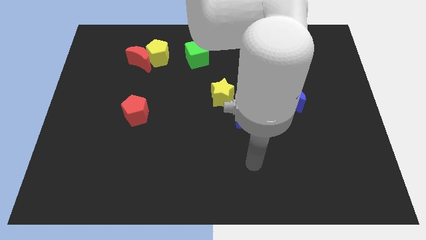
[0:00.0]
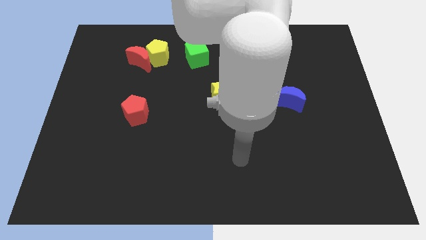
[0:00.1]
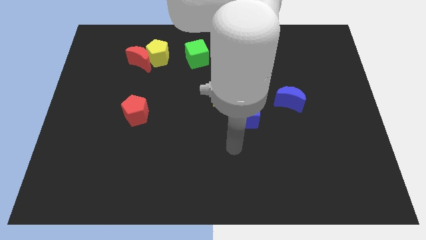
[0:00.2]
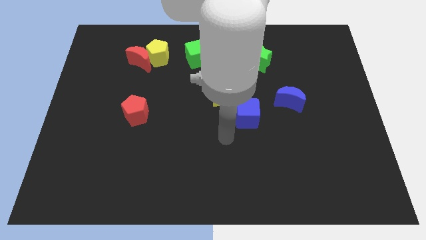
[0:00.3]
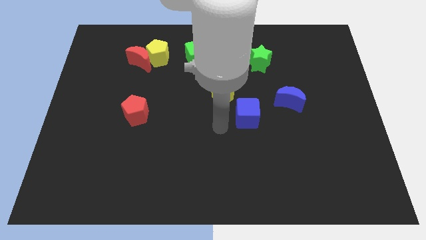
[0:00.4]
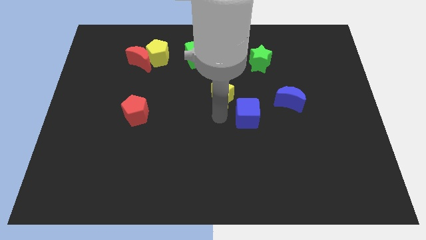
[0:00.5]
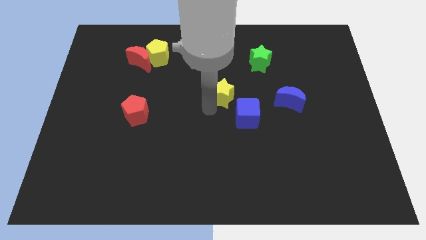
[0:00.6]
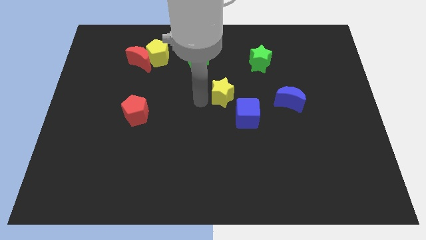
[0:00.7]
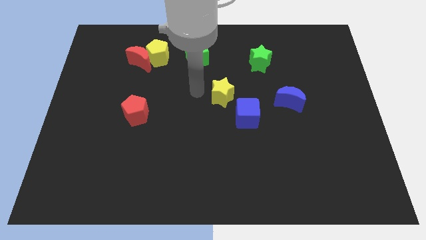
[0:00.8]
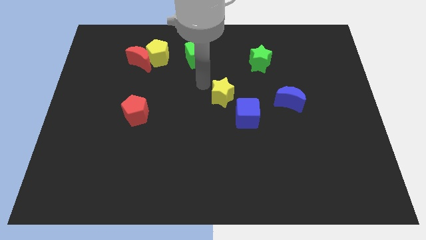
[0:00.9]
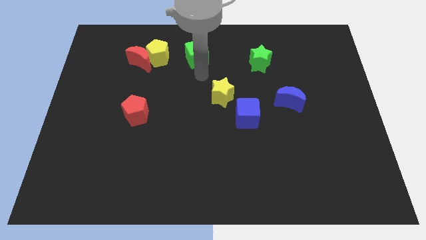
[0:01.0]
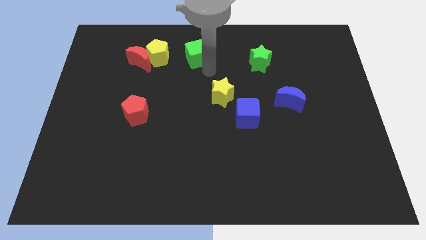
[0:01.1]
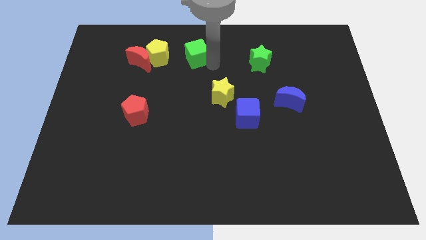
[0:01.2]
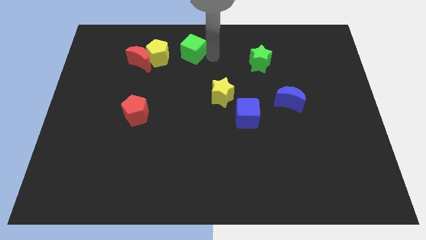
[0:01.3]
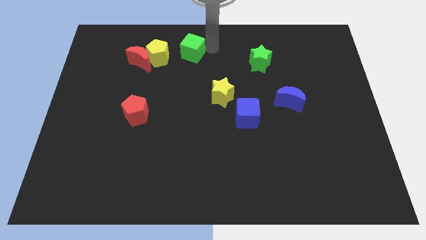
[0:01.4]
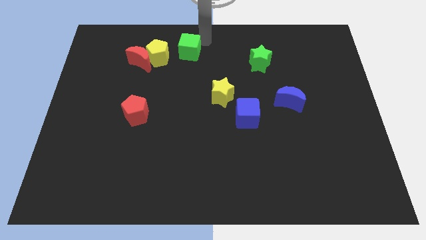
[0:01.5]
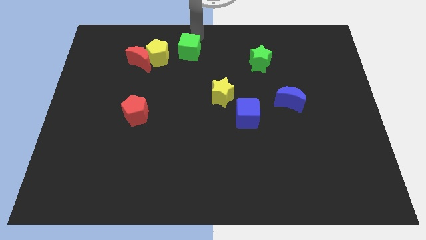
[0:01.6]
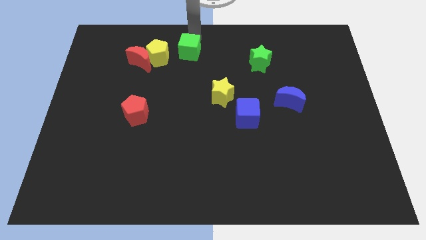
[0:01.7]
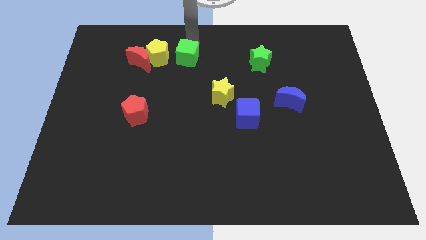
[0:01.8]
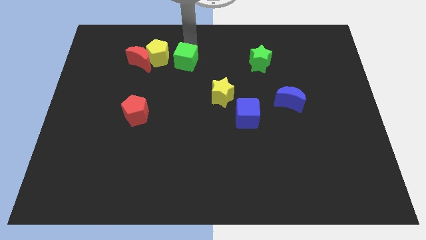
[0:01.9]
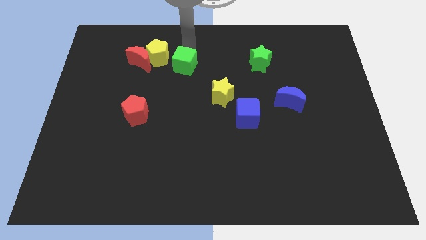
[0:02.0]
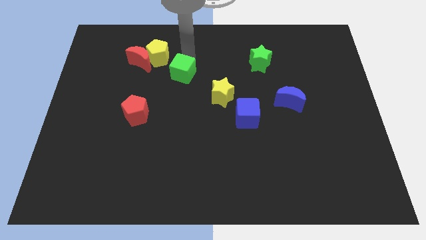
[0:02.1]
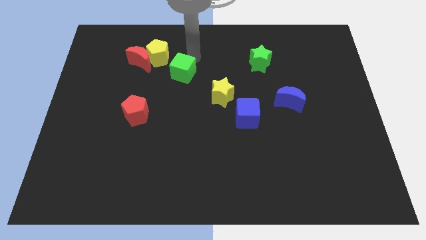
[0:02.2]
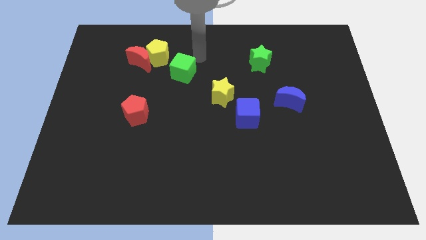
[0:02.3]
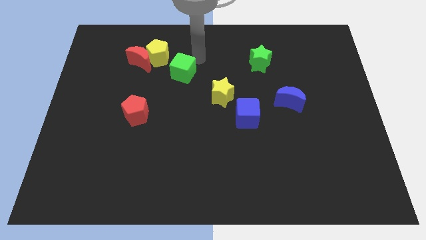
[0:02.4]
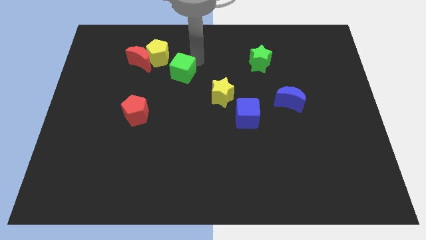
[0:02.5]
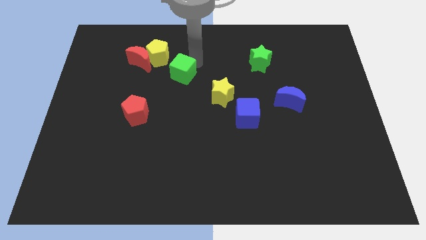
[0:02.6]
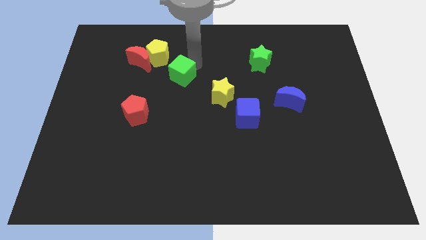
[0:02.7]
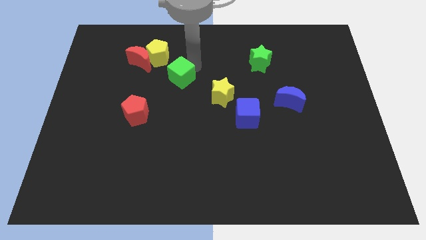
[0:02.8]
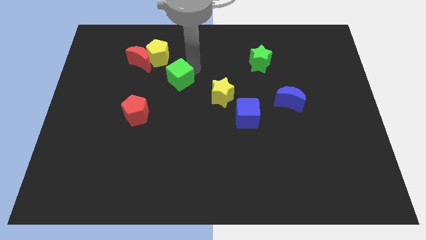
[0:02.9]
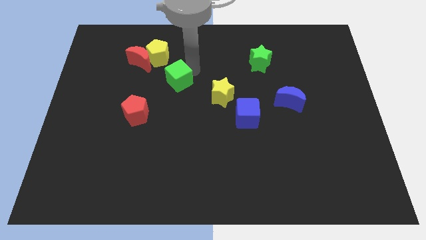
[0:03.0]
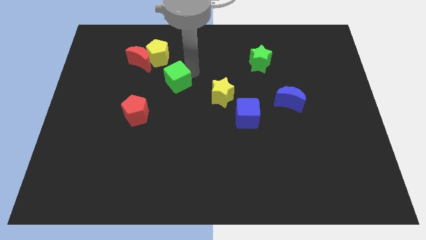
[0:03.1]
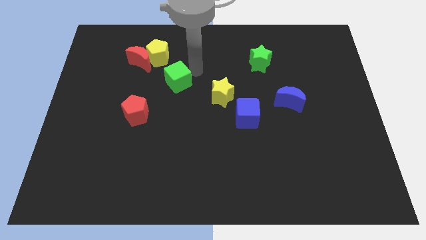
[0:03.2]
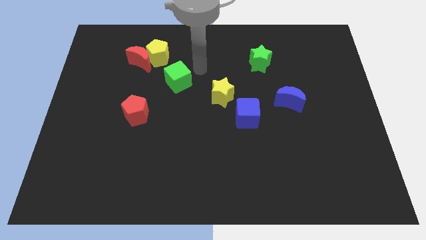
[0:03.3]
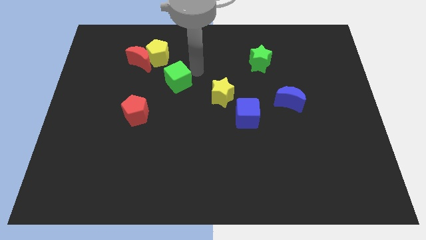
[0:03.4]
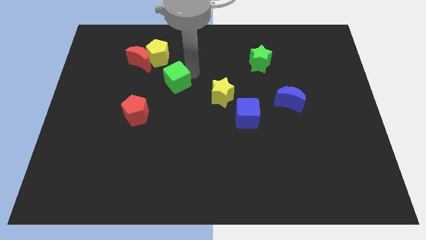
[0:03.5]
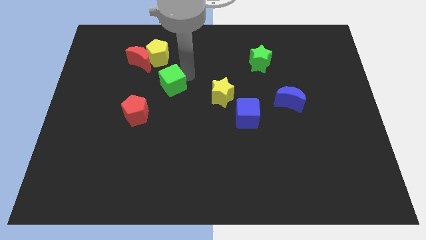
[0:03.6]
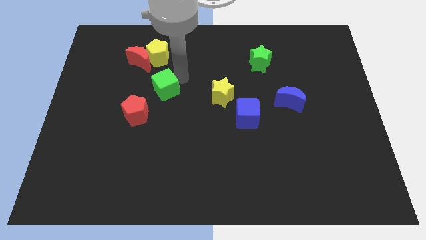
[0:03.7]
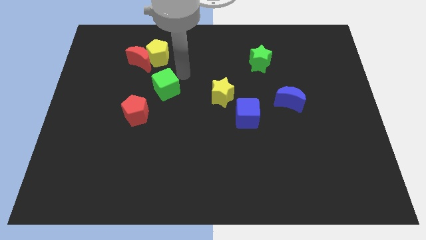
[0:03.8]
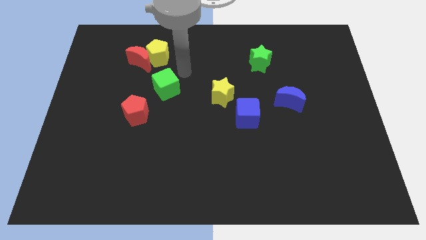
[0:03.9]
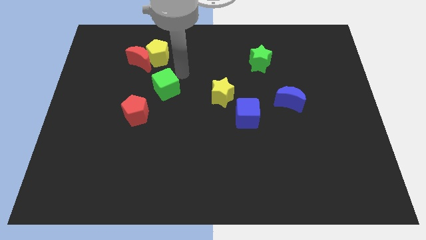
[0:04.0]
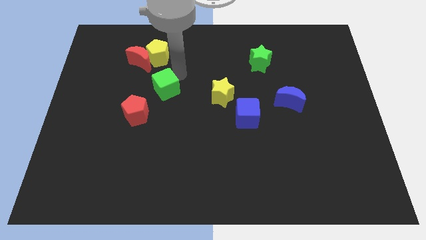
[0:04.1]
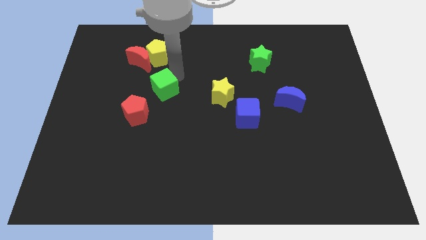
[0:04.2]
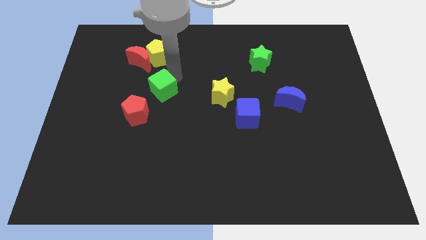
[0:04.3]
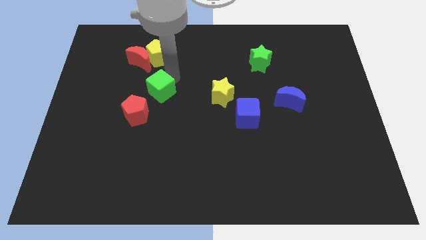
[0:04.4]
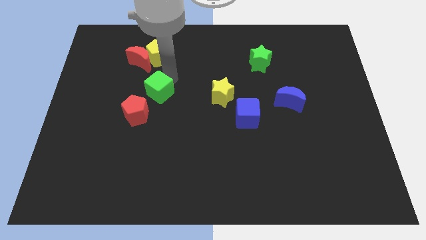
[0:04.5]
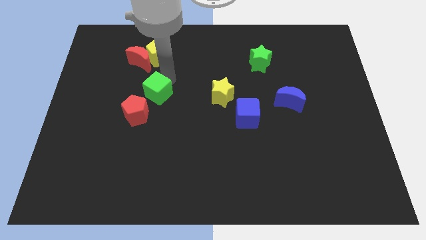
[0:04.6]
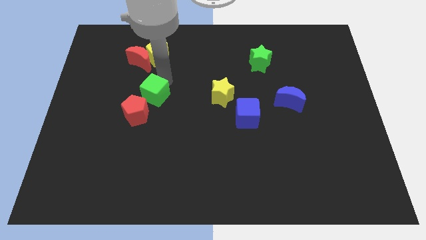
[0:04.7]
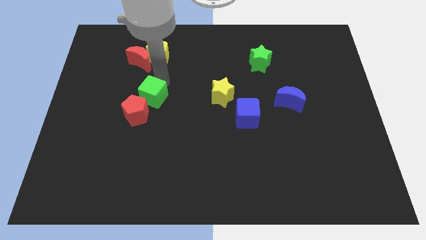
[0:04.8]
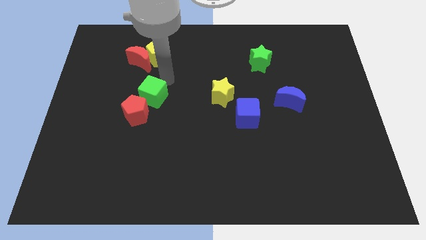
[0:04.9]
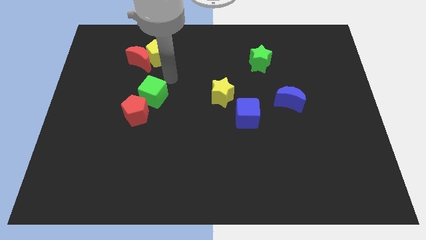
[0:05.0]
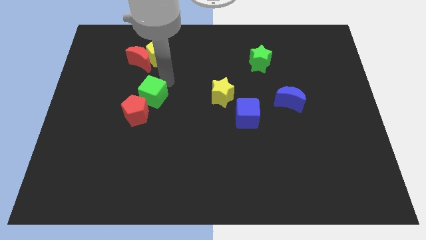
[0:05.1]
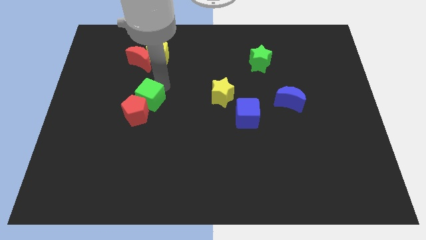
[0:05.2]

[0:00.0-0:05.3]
slide the green cube to the red pentagon

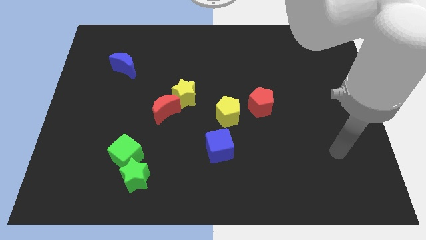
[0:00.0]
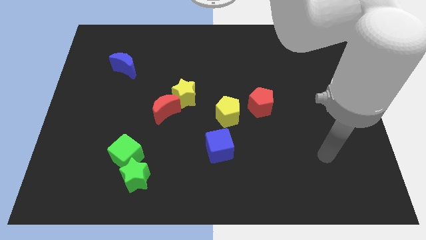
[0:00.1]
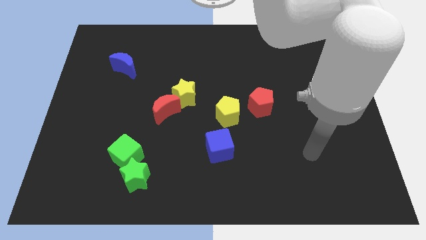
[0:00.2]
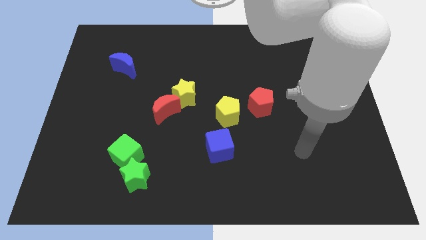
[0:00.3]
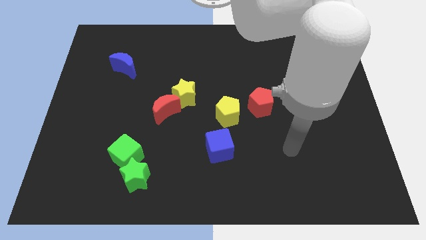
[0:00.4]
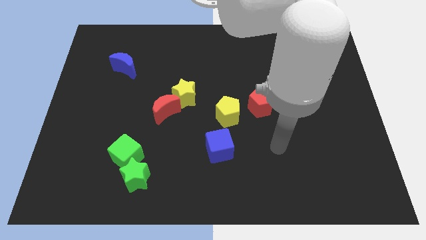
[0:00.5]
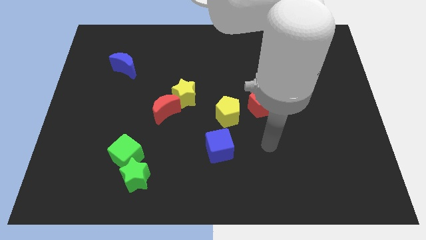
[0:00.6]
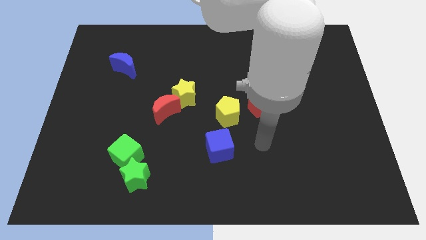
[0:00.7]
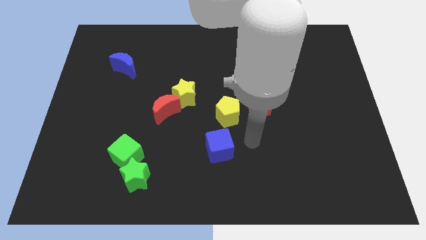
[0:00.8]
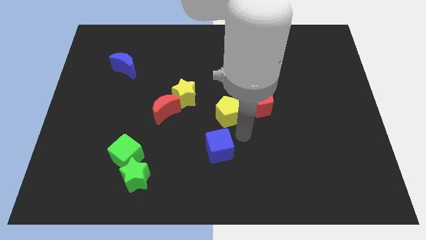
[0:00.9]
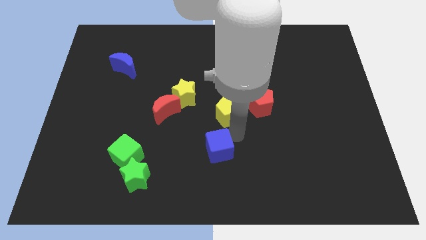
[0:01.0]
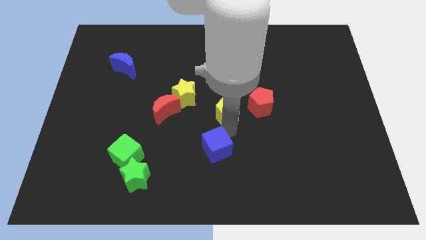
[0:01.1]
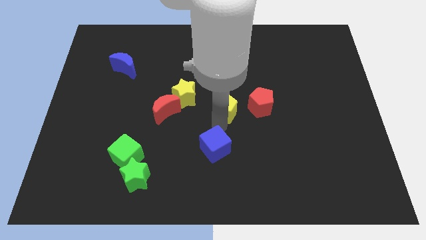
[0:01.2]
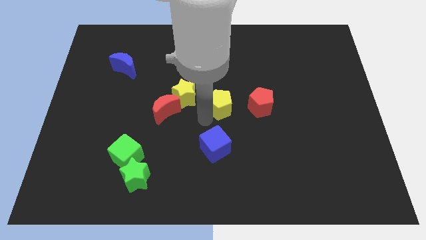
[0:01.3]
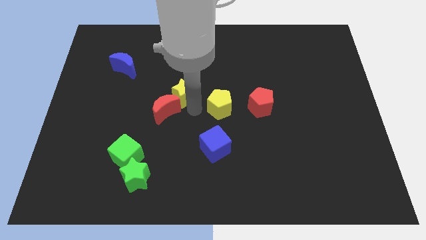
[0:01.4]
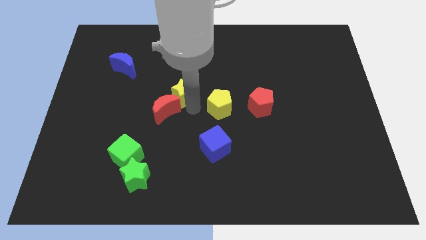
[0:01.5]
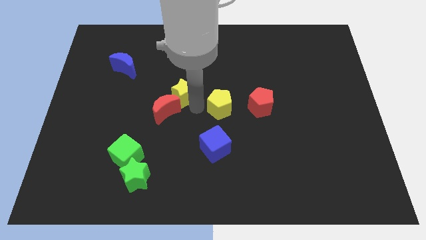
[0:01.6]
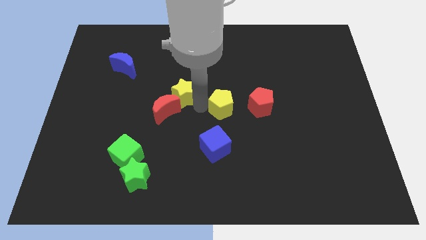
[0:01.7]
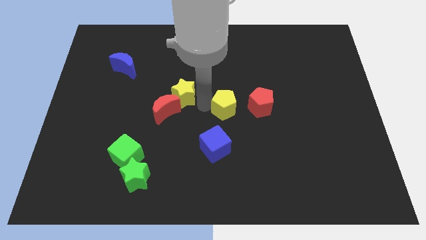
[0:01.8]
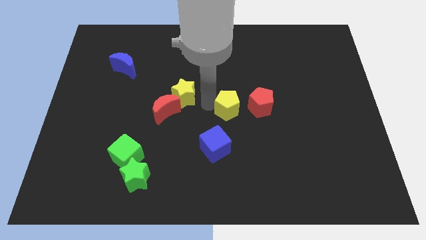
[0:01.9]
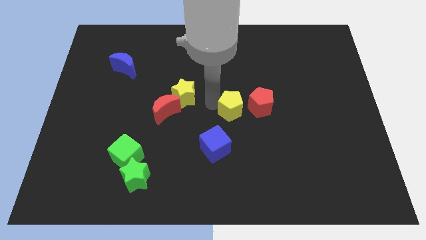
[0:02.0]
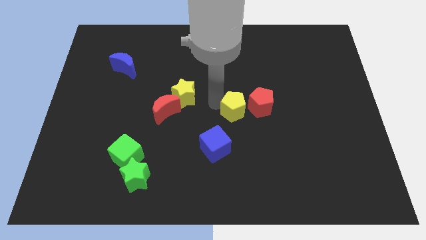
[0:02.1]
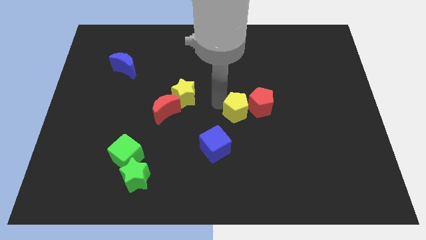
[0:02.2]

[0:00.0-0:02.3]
move the yellow pentagon next to the red pentagon

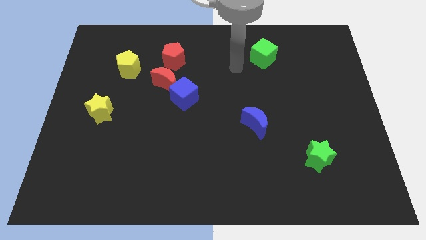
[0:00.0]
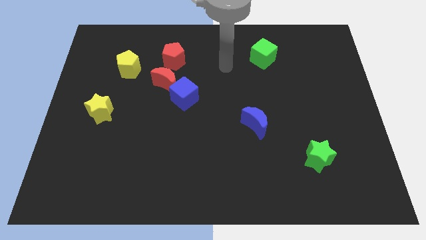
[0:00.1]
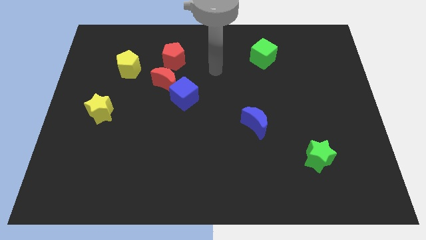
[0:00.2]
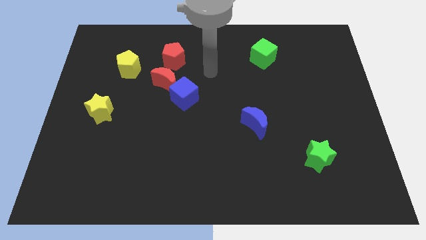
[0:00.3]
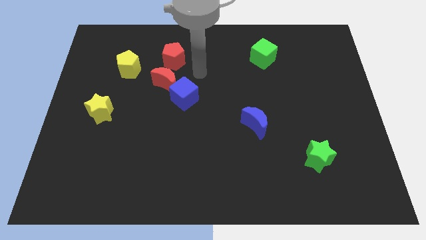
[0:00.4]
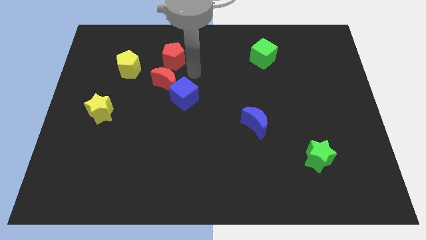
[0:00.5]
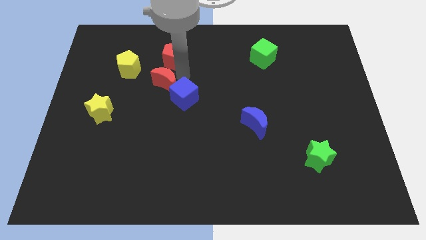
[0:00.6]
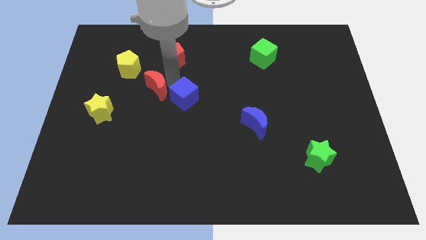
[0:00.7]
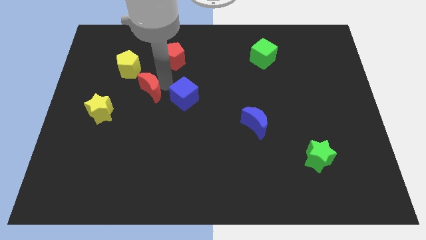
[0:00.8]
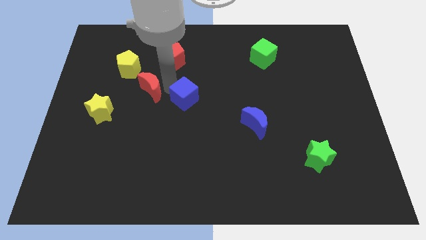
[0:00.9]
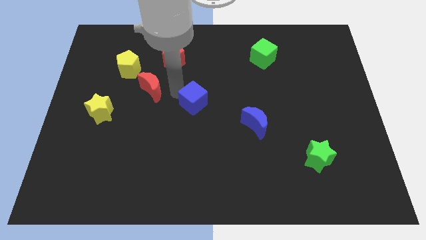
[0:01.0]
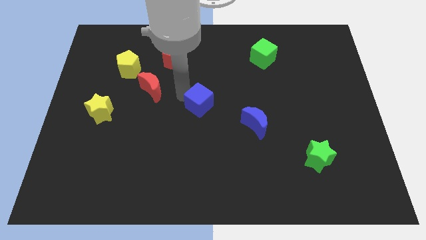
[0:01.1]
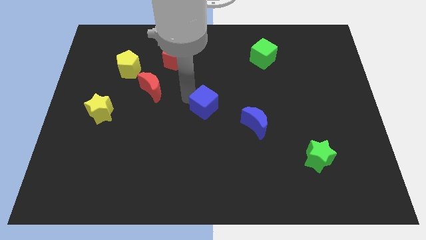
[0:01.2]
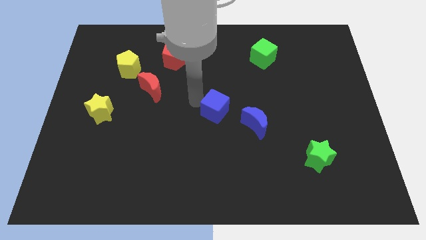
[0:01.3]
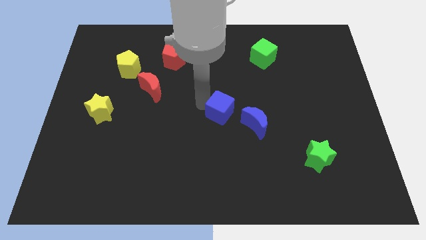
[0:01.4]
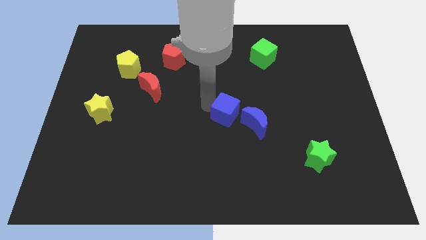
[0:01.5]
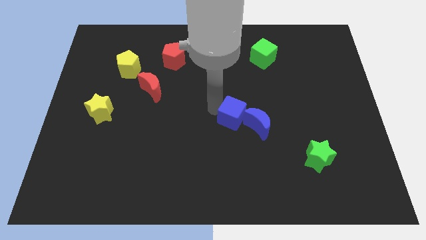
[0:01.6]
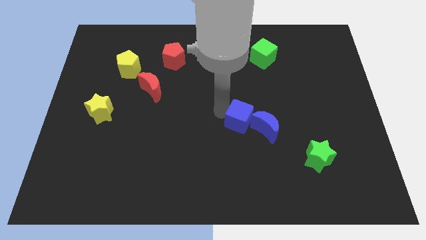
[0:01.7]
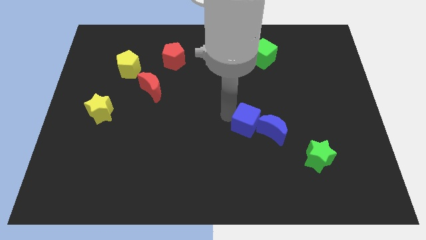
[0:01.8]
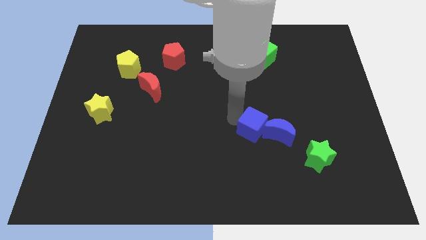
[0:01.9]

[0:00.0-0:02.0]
push the blue cube next to the blue moon
